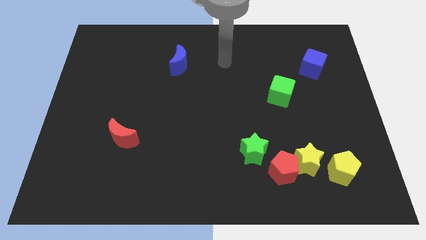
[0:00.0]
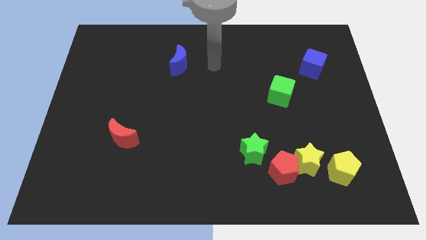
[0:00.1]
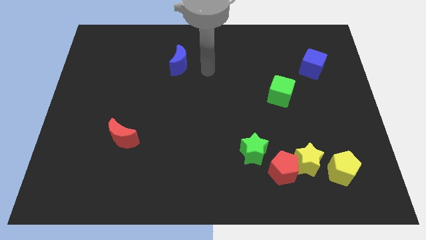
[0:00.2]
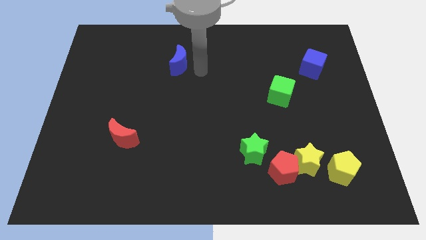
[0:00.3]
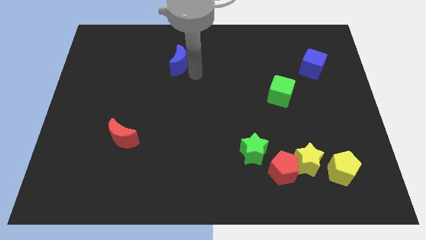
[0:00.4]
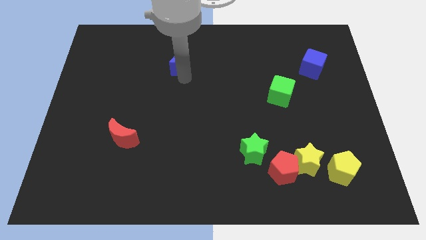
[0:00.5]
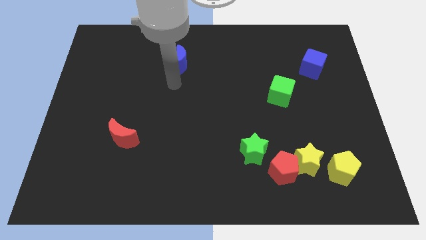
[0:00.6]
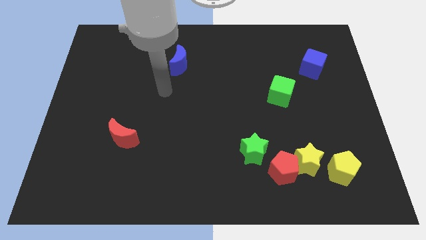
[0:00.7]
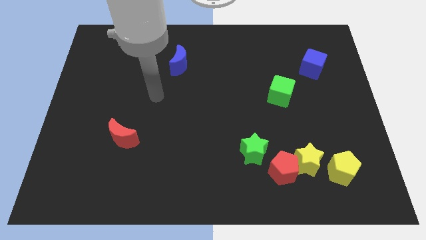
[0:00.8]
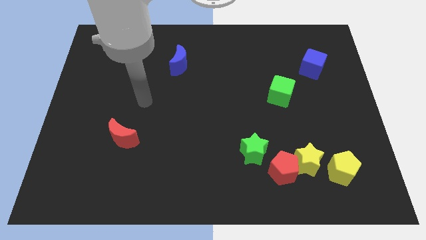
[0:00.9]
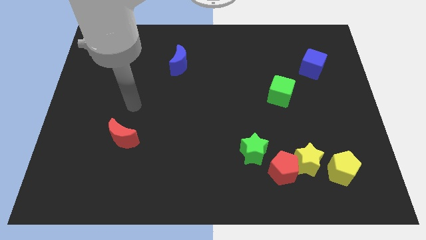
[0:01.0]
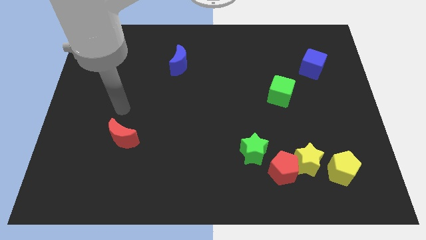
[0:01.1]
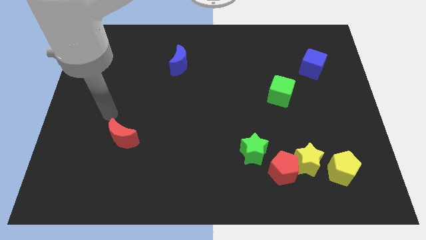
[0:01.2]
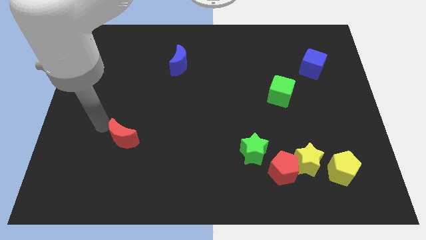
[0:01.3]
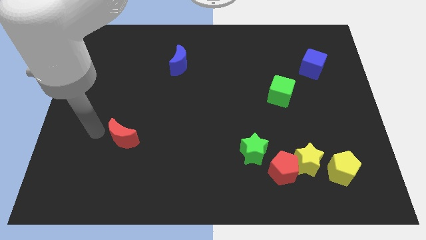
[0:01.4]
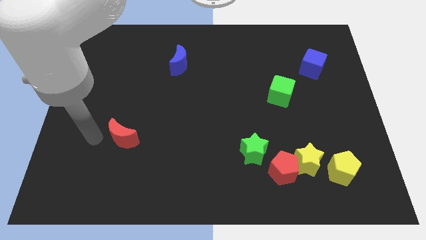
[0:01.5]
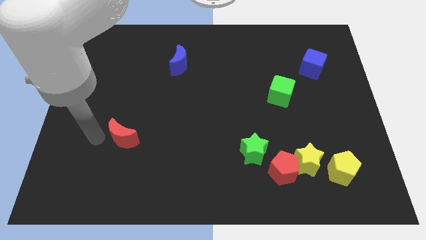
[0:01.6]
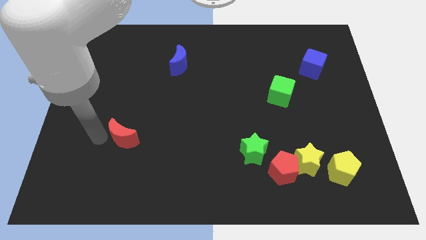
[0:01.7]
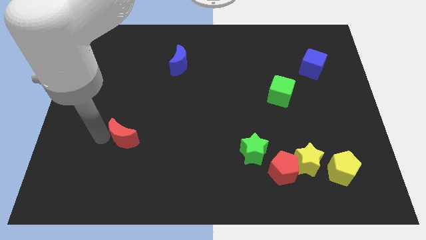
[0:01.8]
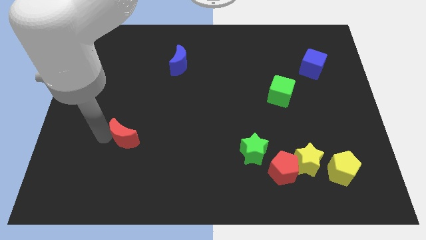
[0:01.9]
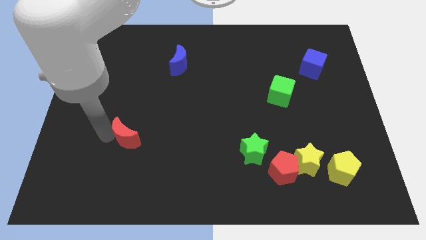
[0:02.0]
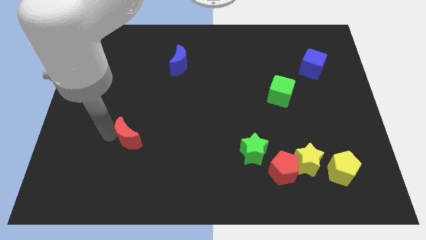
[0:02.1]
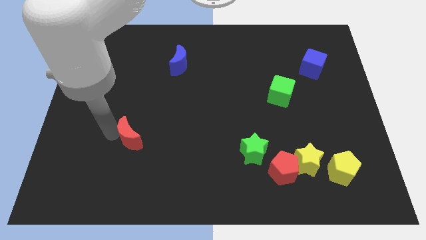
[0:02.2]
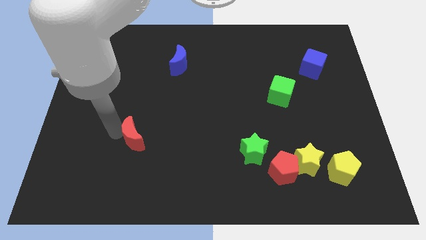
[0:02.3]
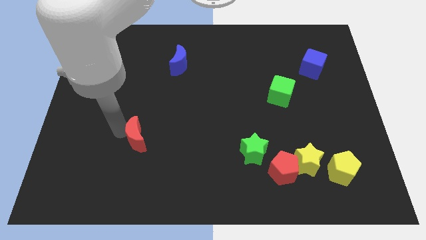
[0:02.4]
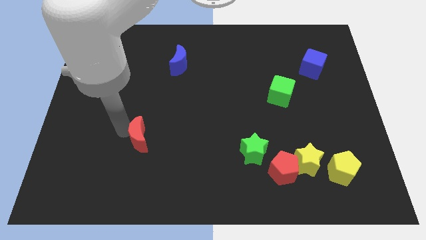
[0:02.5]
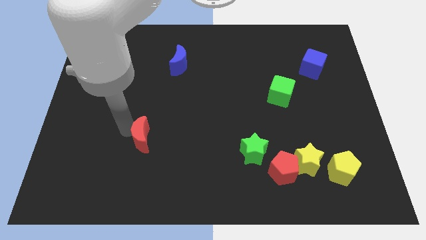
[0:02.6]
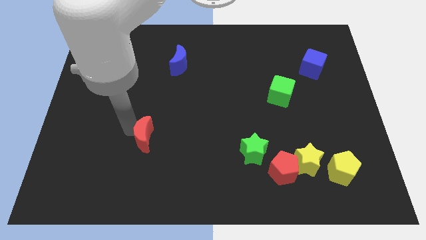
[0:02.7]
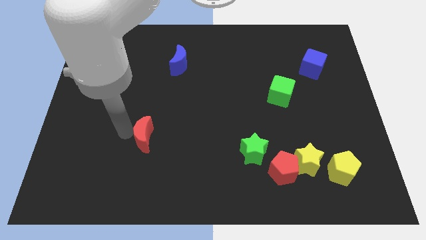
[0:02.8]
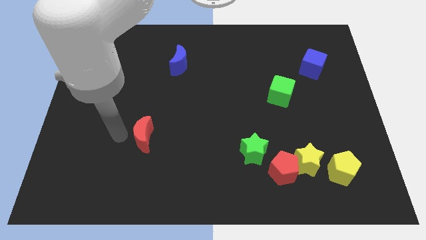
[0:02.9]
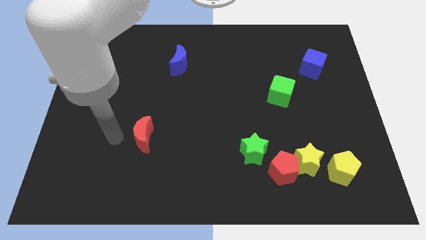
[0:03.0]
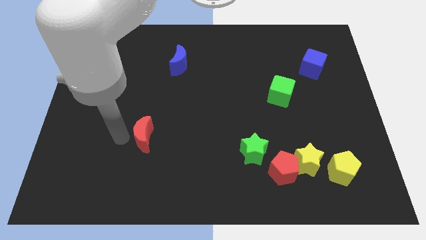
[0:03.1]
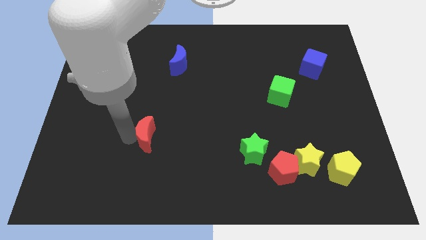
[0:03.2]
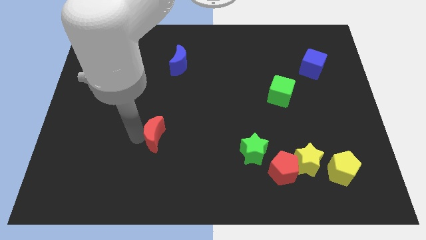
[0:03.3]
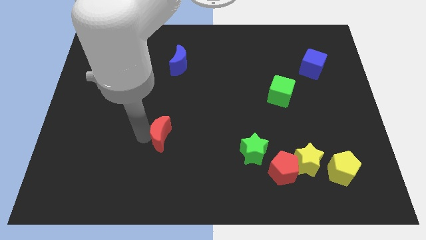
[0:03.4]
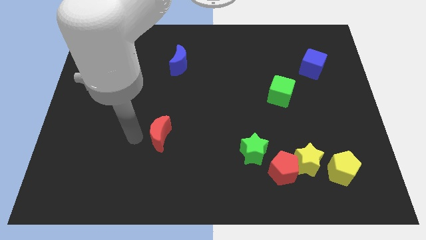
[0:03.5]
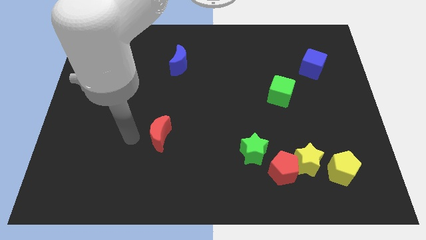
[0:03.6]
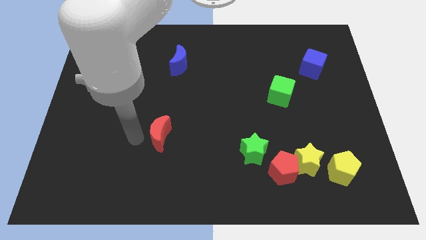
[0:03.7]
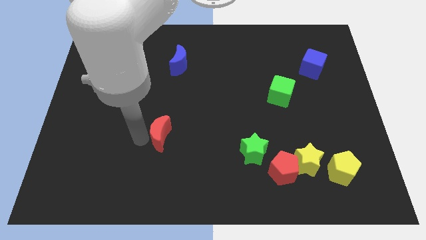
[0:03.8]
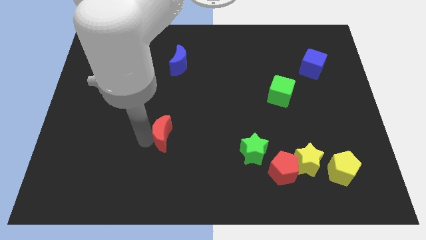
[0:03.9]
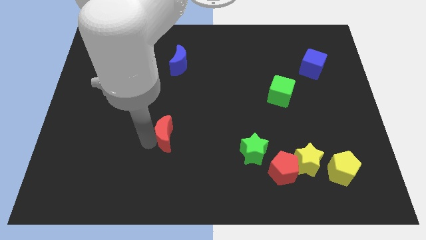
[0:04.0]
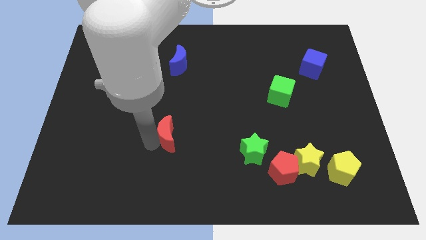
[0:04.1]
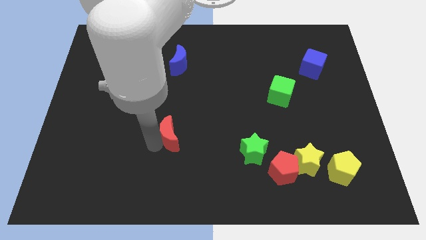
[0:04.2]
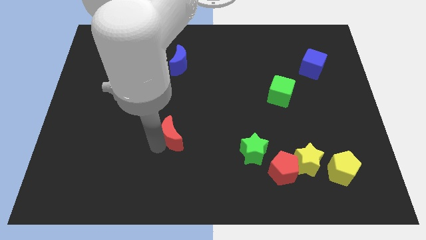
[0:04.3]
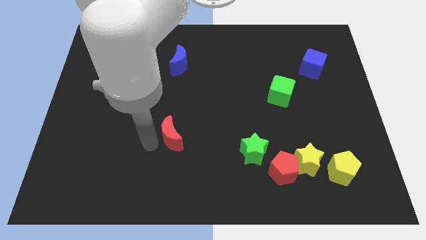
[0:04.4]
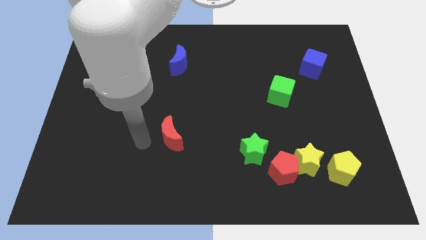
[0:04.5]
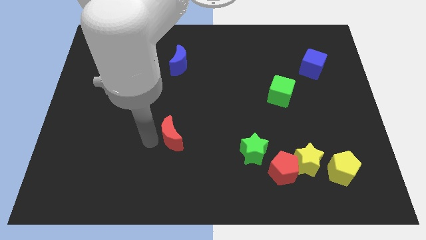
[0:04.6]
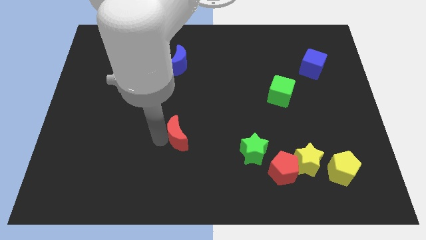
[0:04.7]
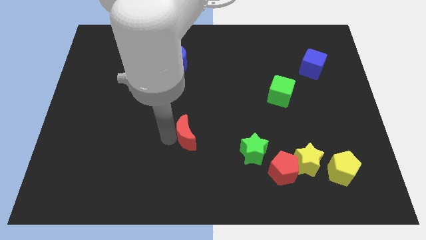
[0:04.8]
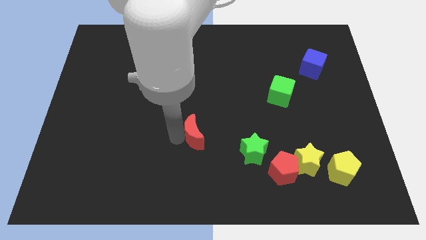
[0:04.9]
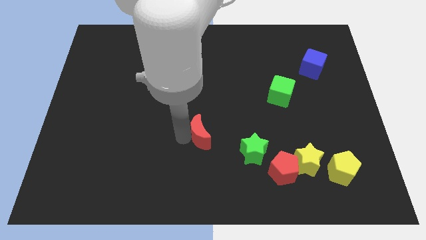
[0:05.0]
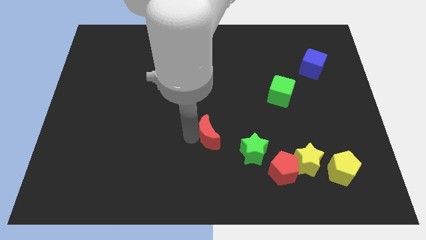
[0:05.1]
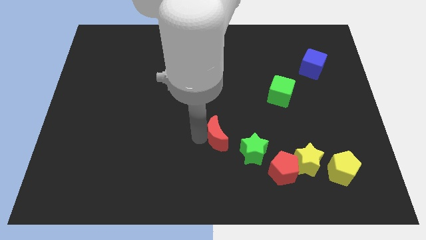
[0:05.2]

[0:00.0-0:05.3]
push the red moon right

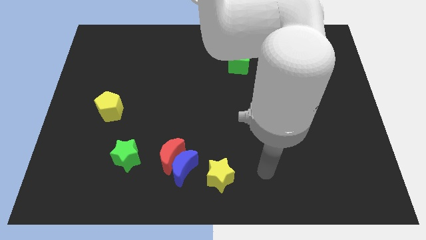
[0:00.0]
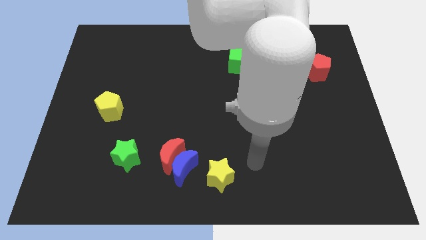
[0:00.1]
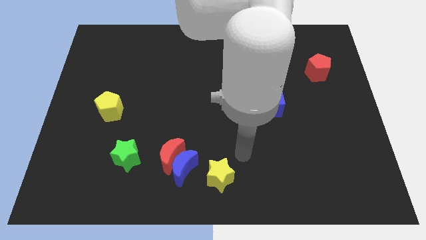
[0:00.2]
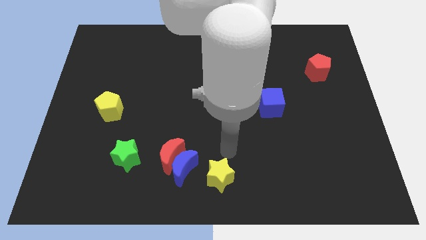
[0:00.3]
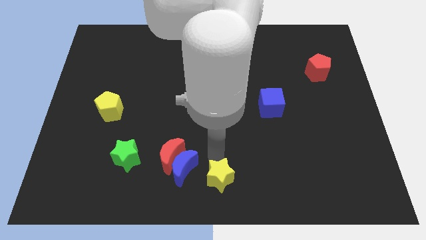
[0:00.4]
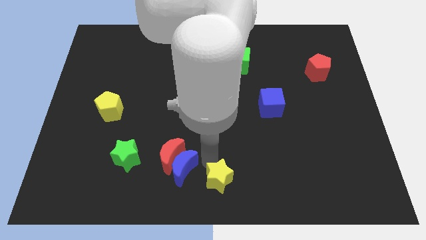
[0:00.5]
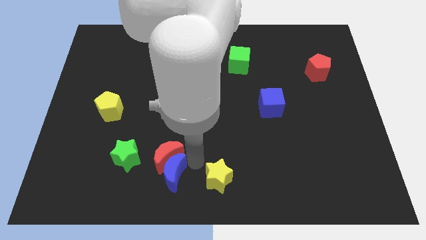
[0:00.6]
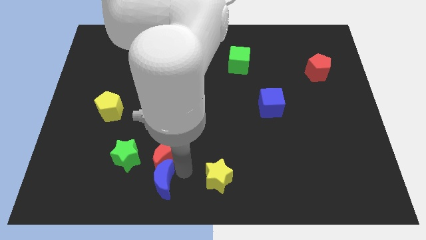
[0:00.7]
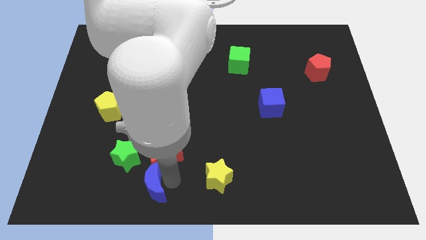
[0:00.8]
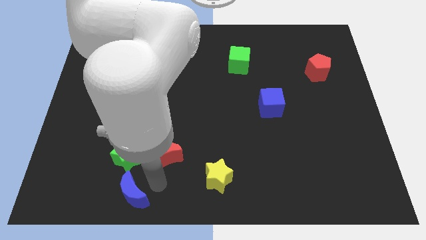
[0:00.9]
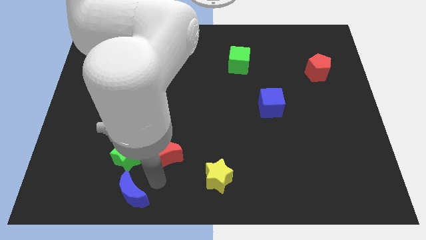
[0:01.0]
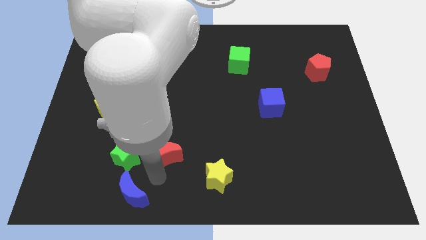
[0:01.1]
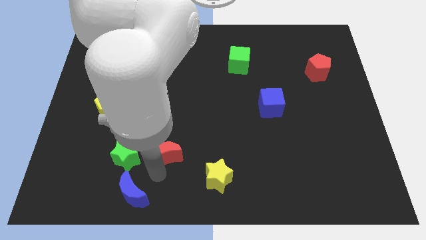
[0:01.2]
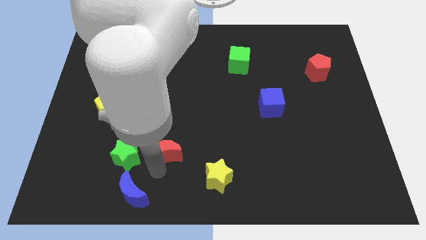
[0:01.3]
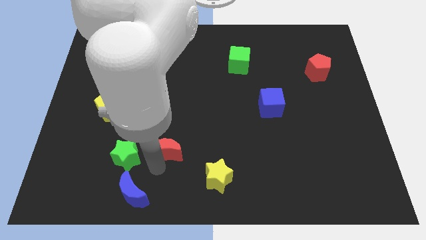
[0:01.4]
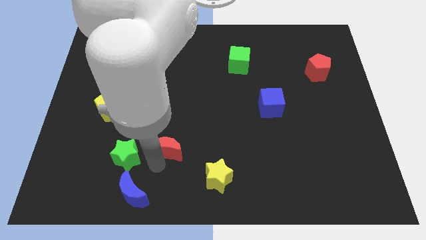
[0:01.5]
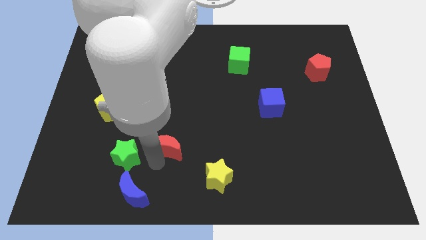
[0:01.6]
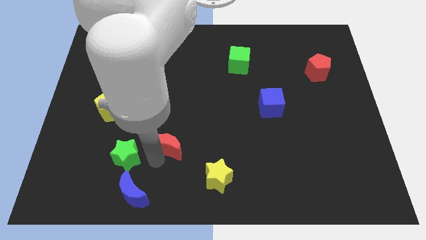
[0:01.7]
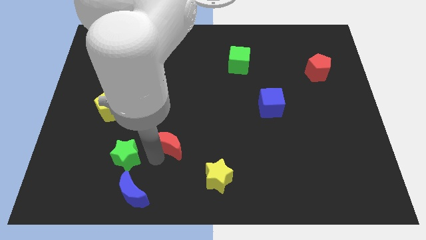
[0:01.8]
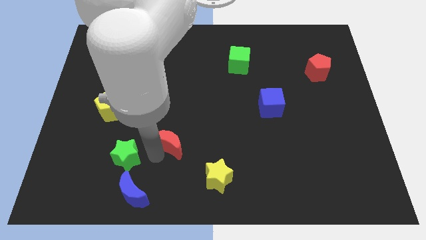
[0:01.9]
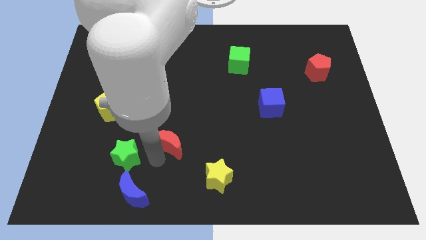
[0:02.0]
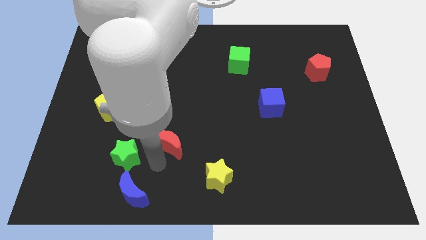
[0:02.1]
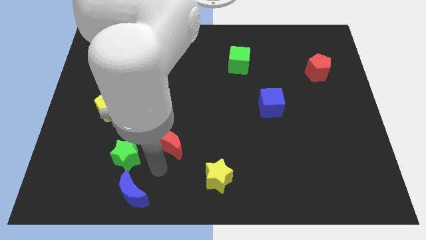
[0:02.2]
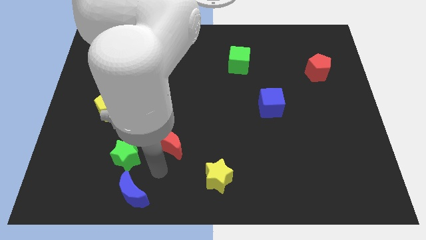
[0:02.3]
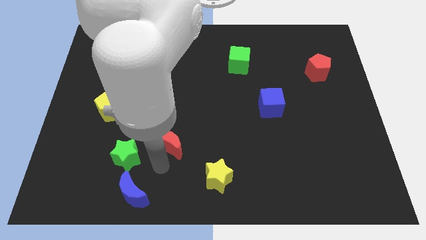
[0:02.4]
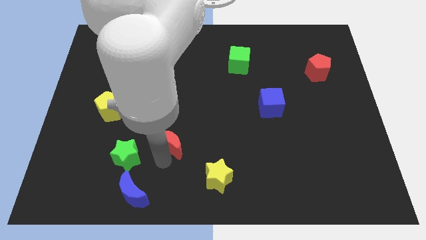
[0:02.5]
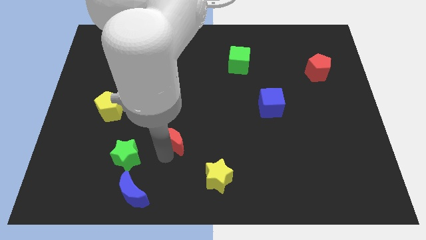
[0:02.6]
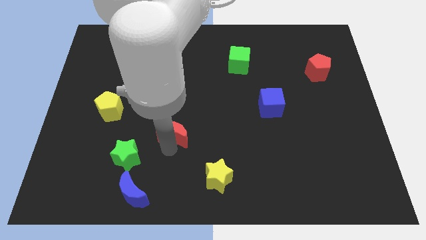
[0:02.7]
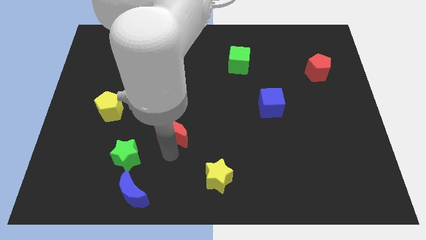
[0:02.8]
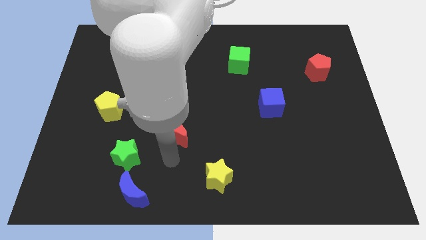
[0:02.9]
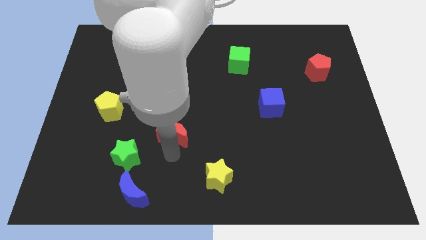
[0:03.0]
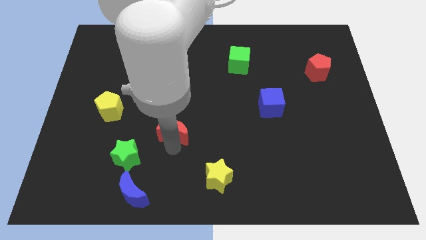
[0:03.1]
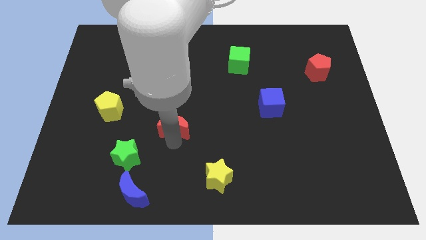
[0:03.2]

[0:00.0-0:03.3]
push the red moon a bit upwards
